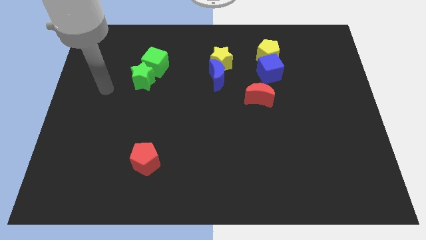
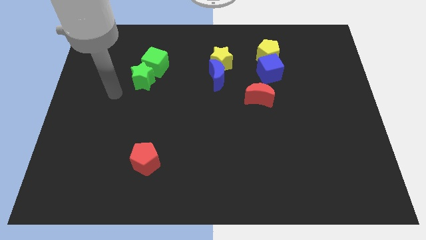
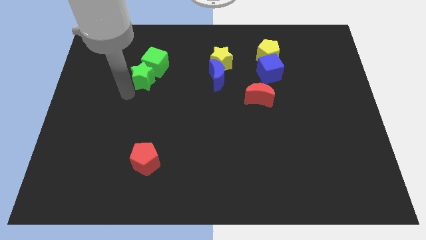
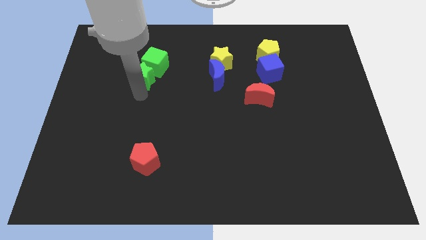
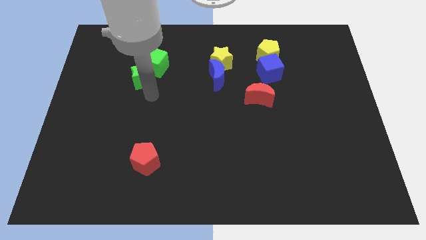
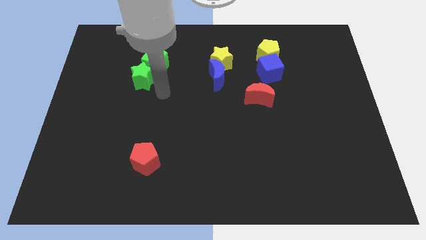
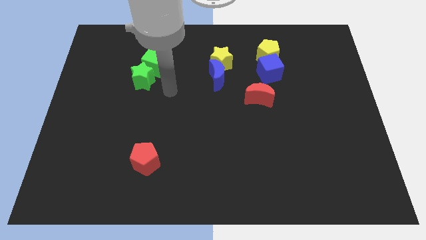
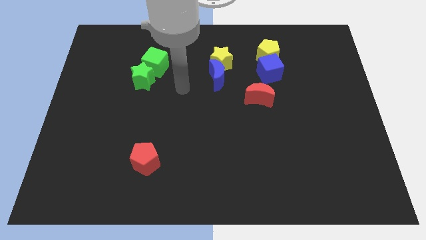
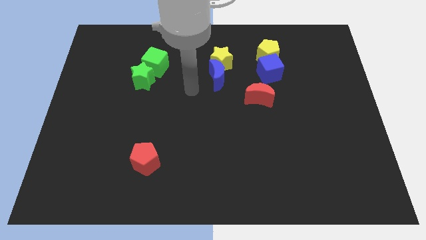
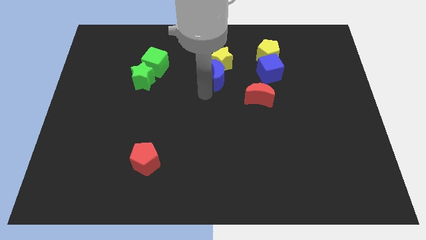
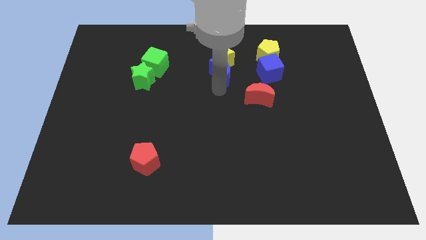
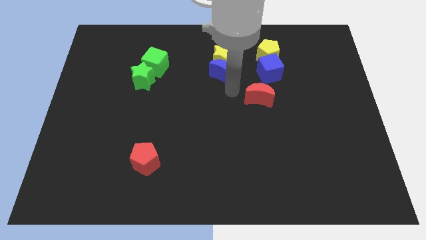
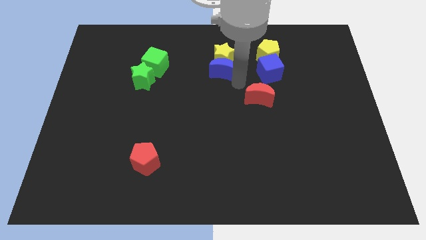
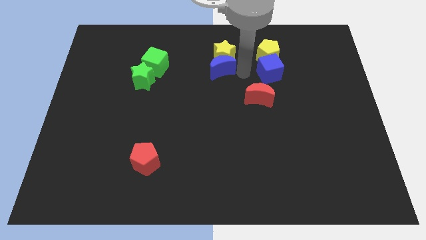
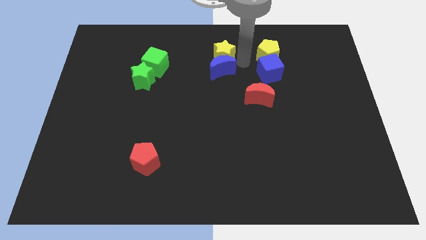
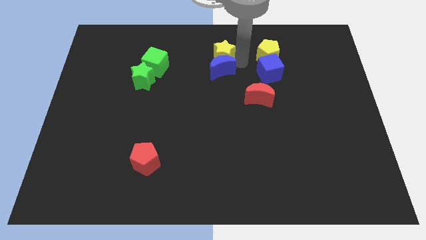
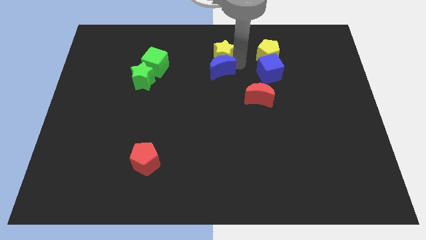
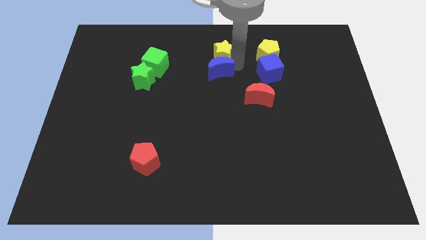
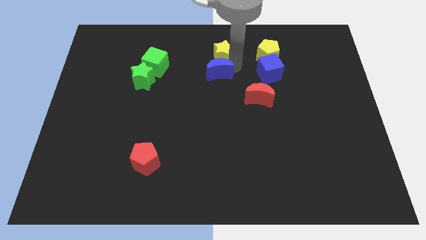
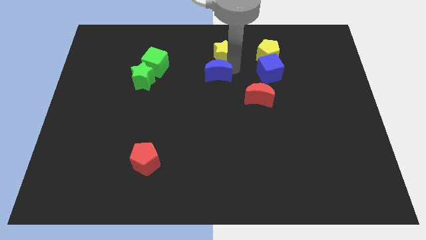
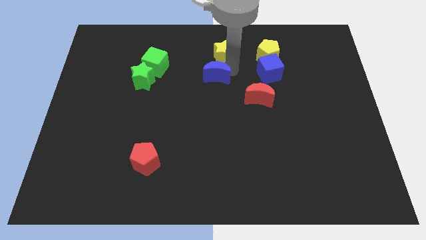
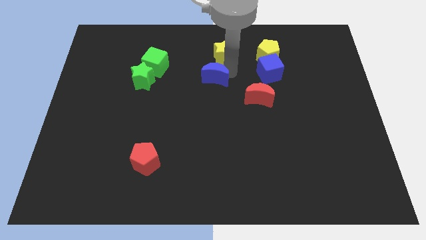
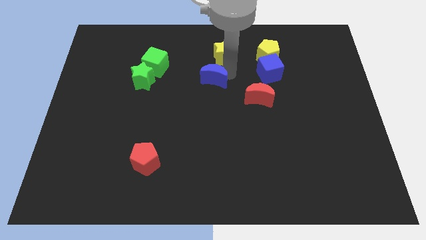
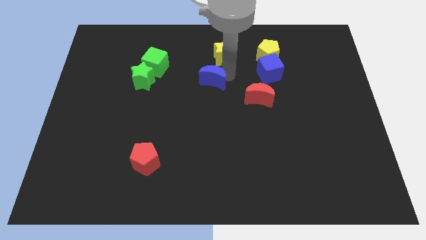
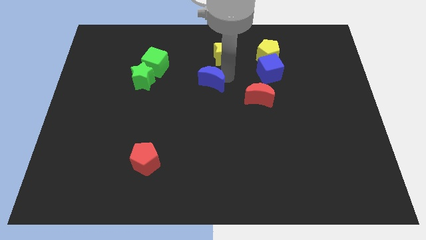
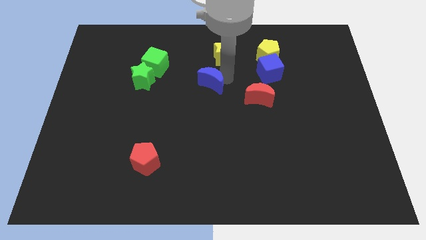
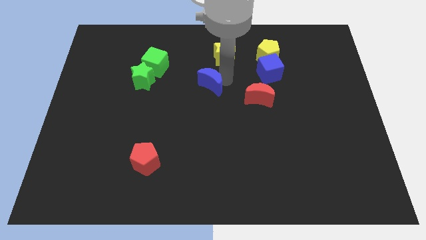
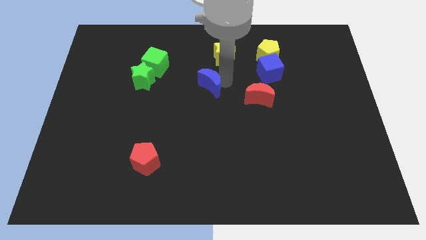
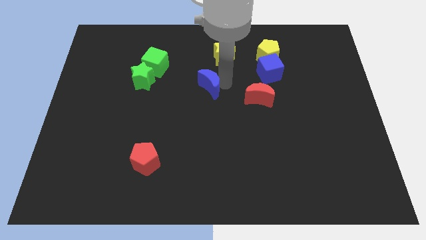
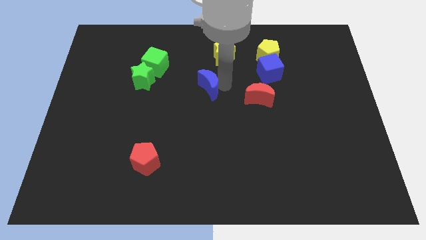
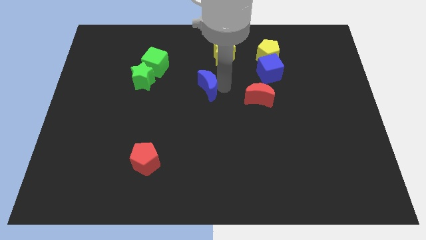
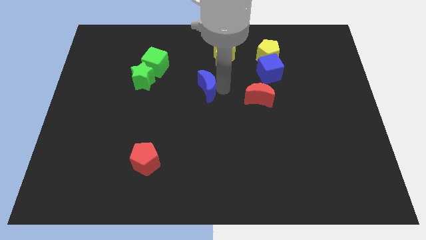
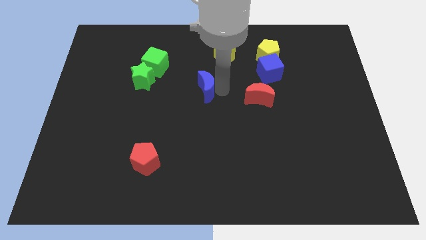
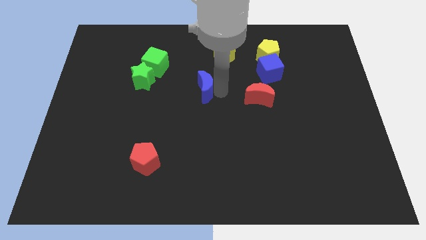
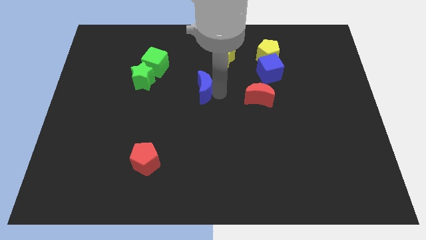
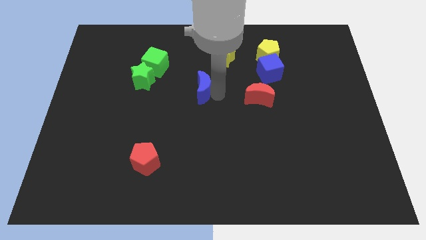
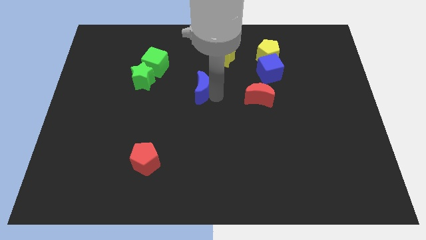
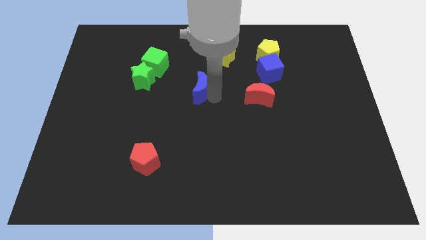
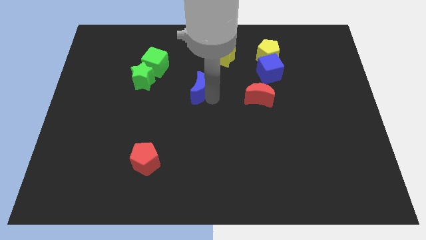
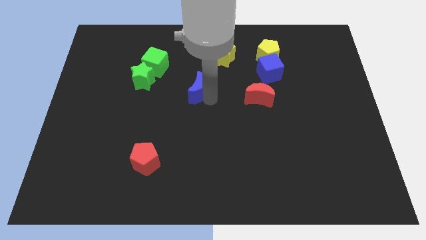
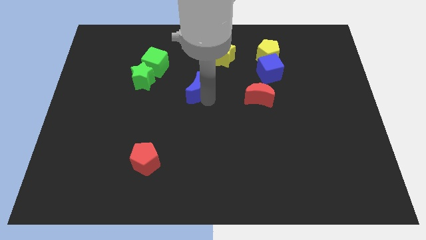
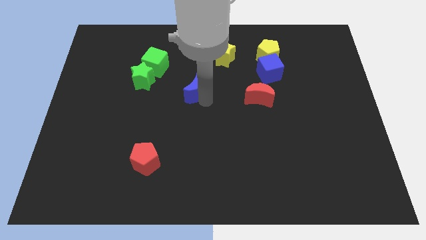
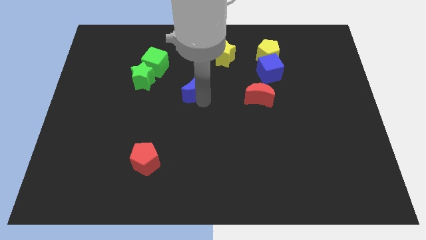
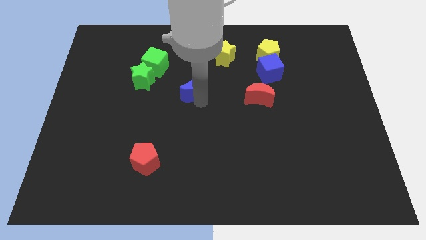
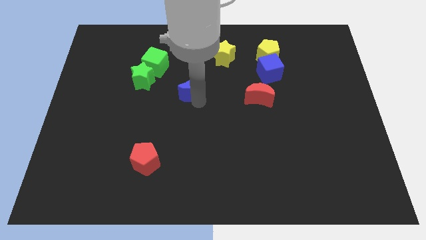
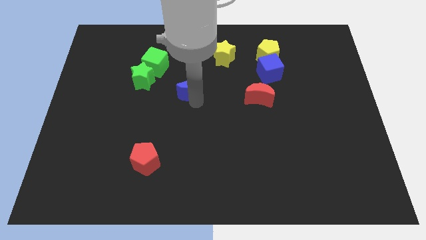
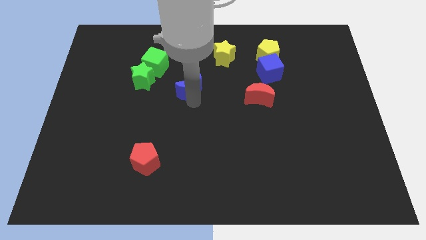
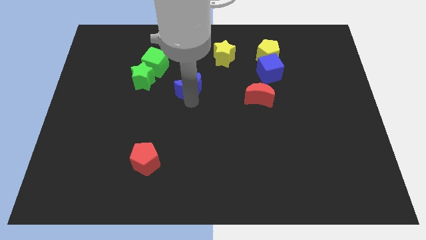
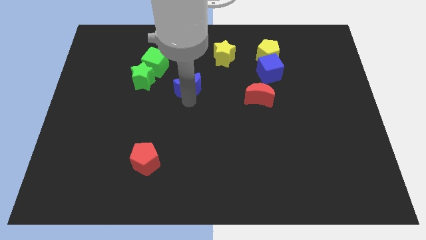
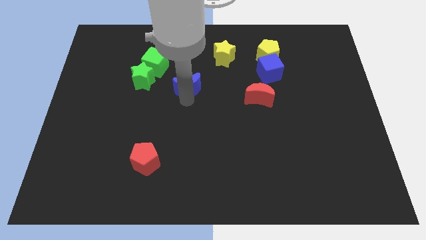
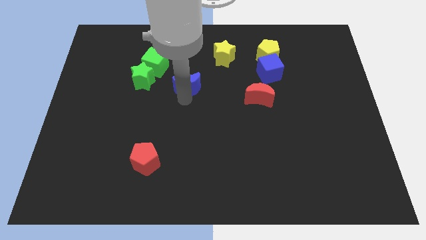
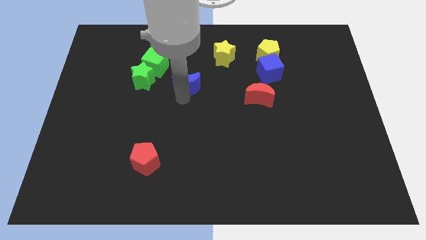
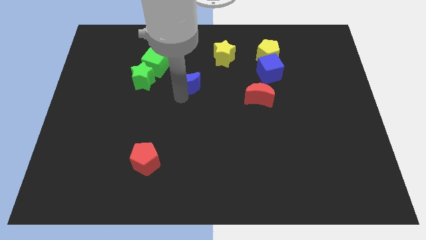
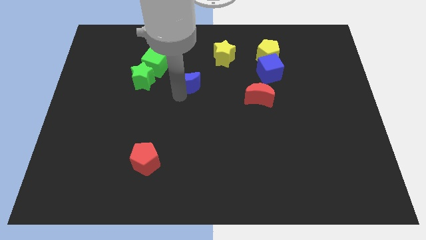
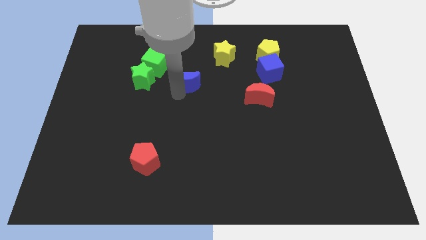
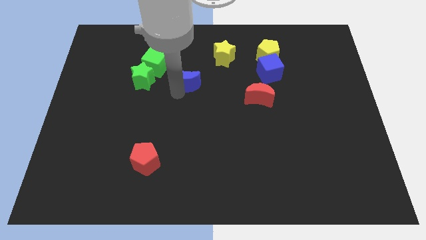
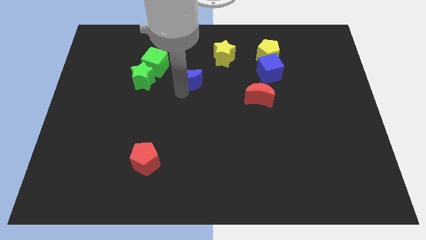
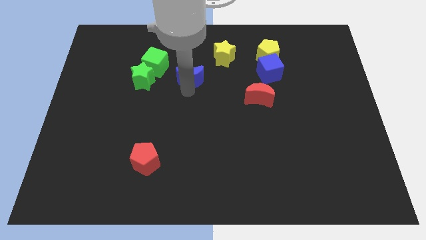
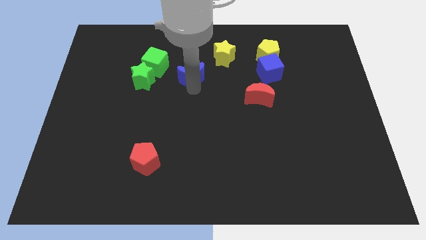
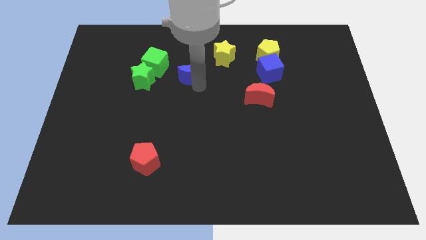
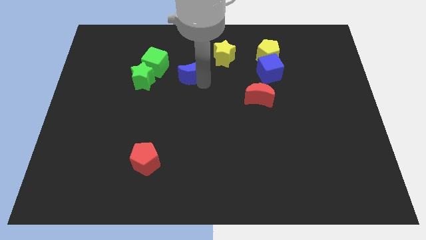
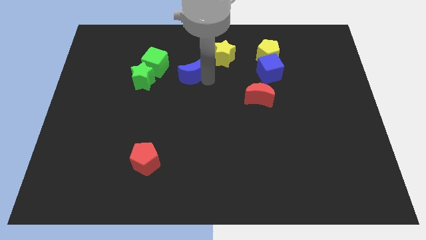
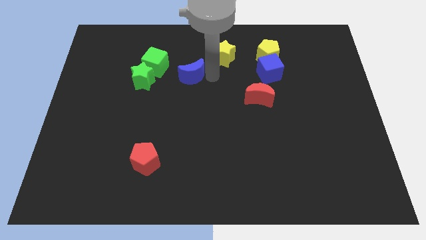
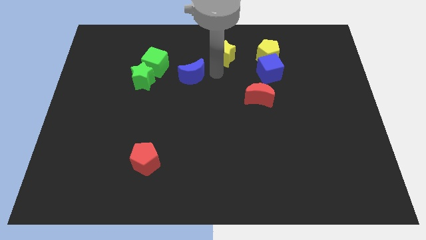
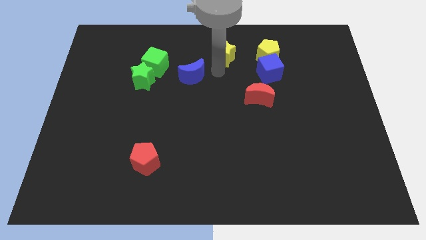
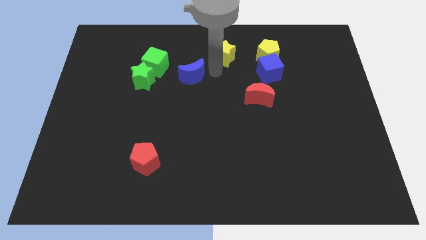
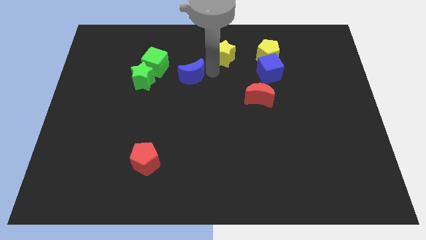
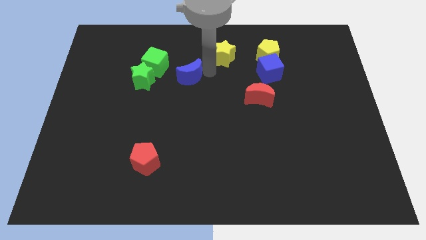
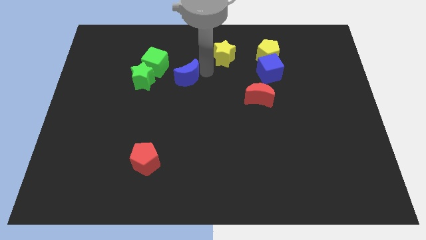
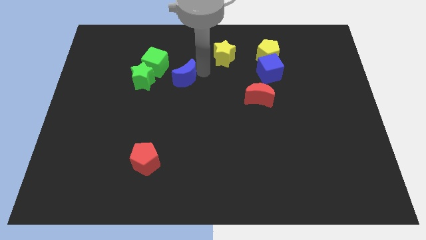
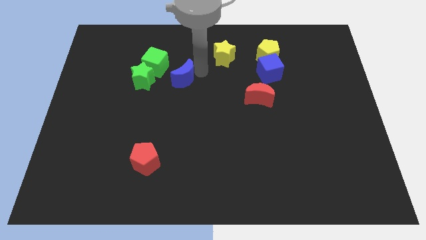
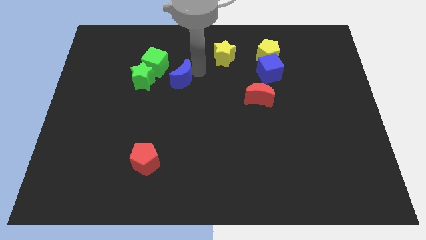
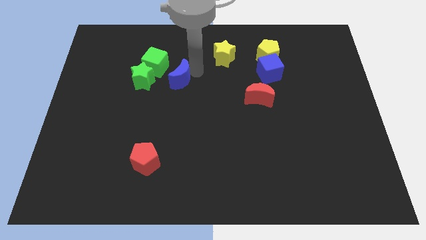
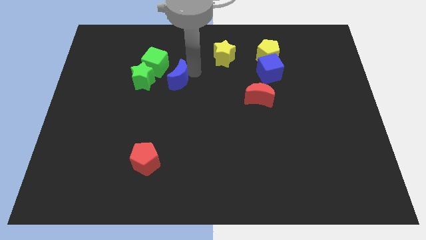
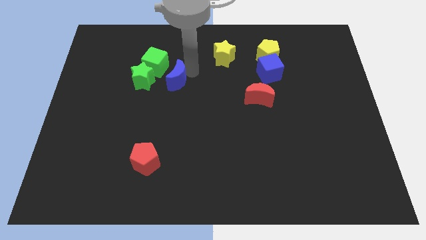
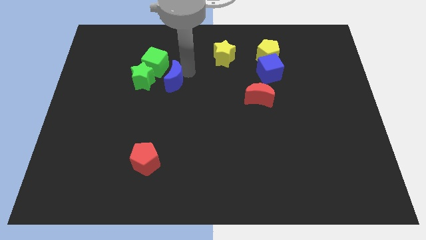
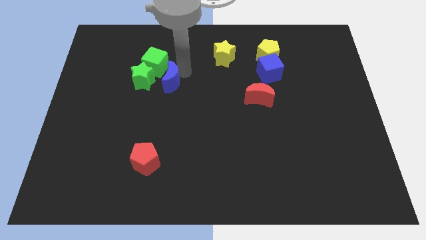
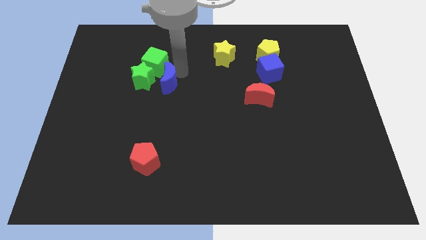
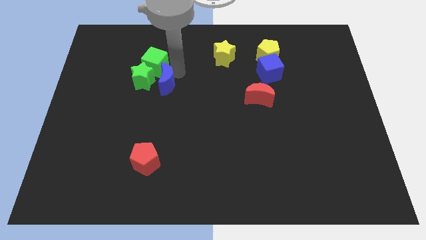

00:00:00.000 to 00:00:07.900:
slide the blue moon close to the green star
